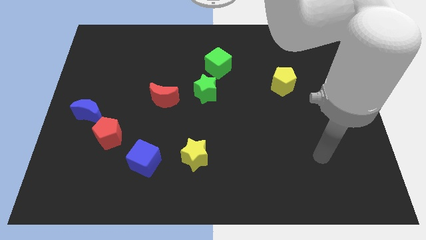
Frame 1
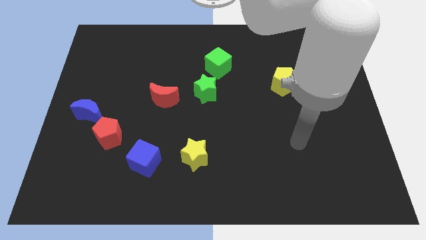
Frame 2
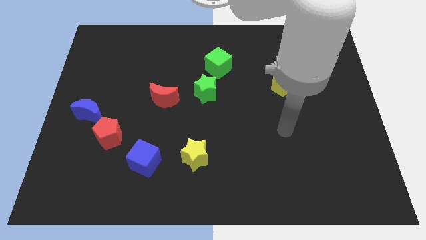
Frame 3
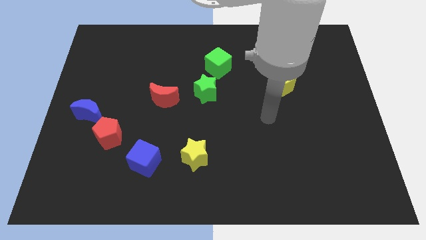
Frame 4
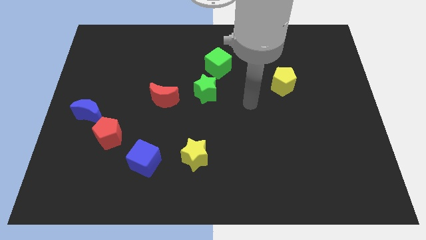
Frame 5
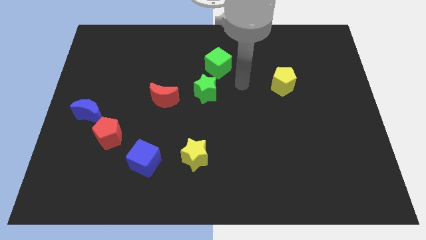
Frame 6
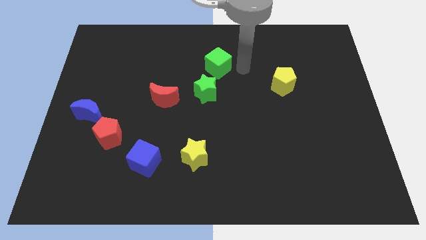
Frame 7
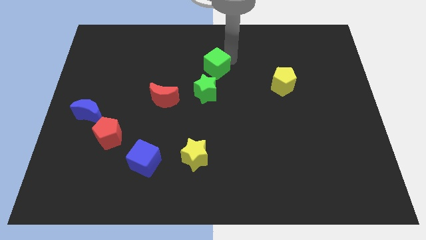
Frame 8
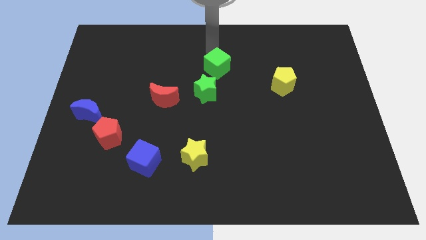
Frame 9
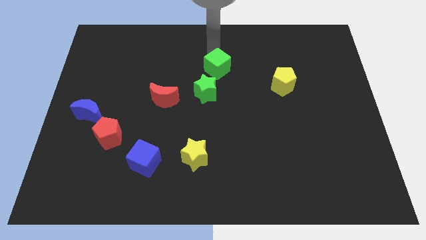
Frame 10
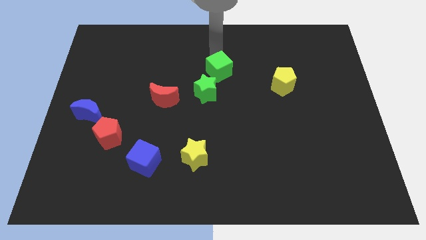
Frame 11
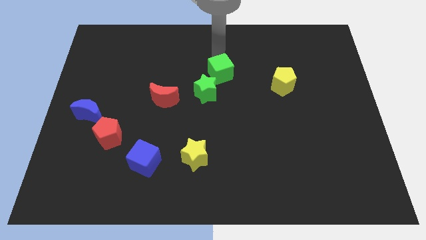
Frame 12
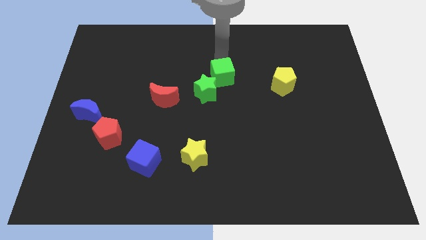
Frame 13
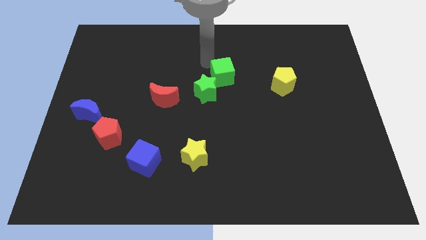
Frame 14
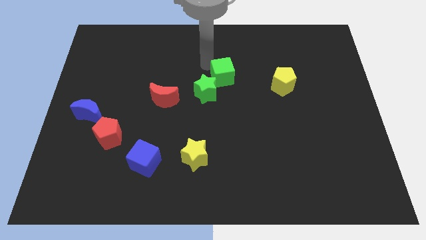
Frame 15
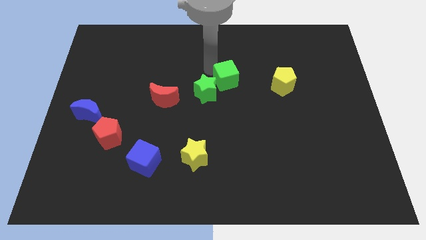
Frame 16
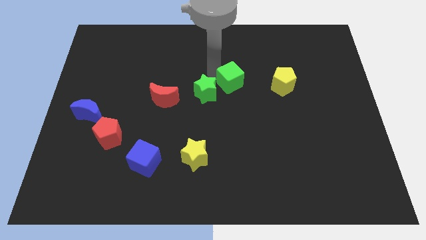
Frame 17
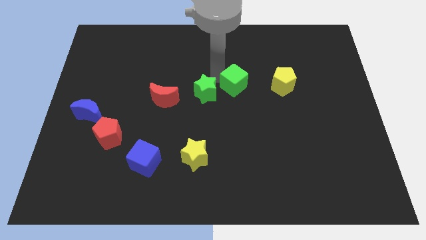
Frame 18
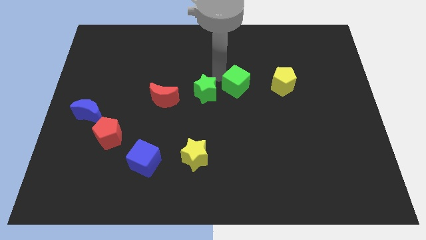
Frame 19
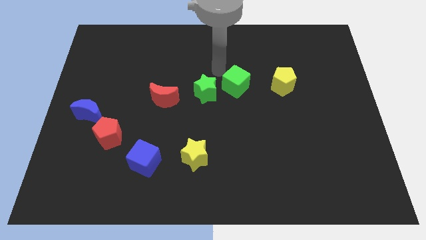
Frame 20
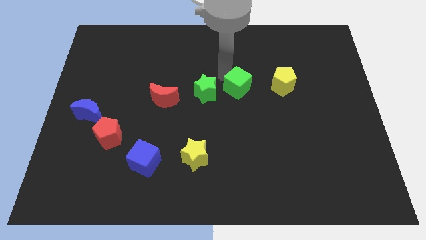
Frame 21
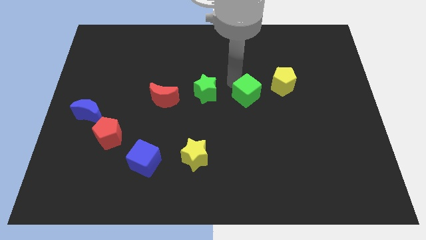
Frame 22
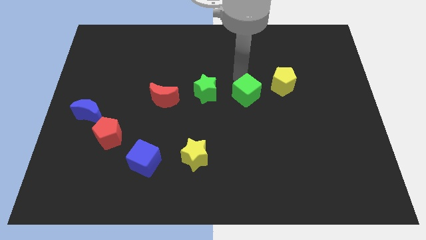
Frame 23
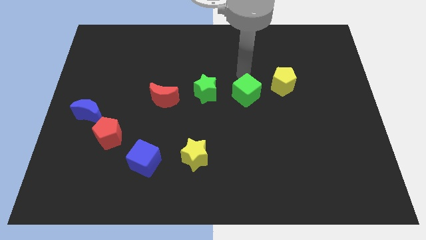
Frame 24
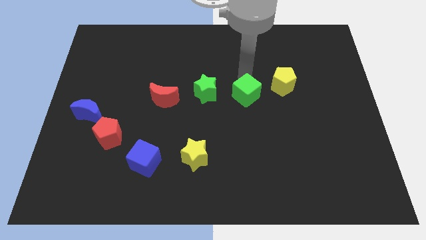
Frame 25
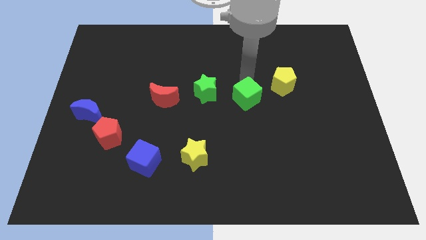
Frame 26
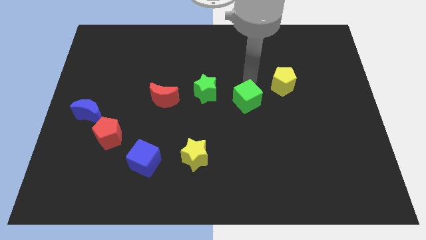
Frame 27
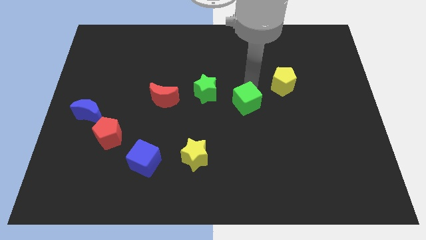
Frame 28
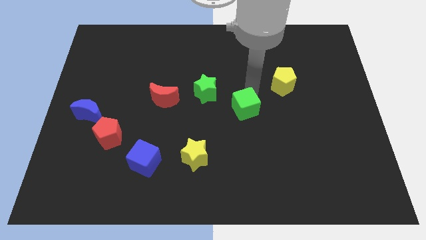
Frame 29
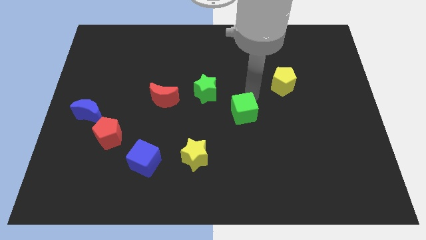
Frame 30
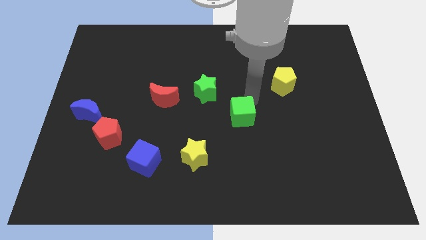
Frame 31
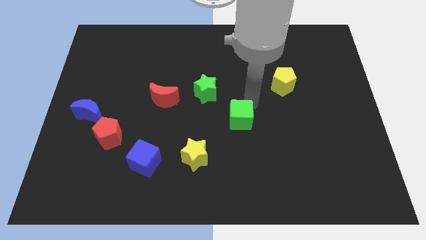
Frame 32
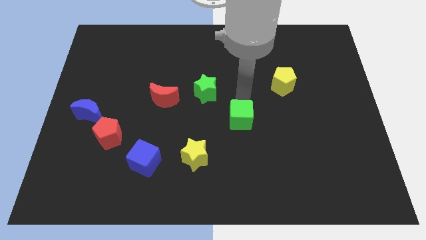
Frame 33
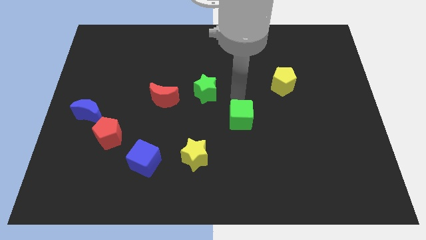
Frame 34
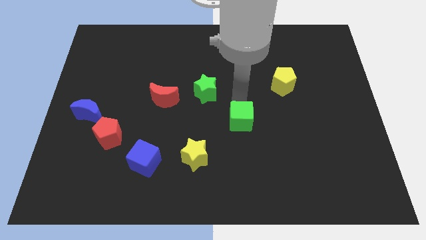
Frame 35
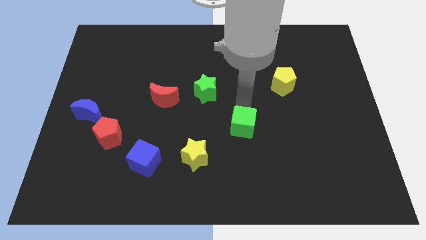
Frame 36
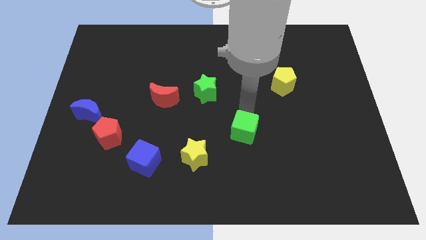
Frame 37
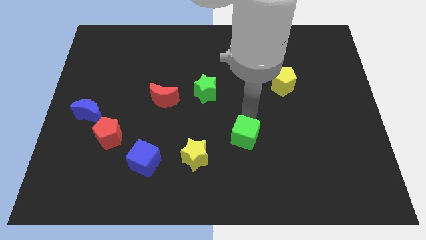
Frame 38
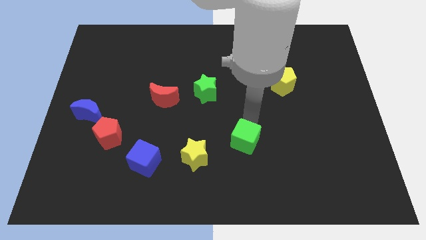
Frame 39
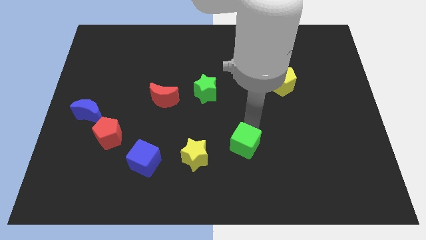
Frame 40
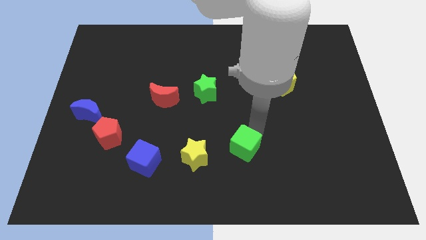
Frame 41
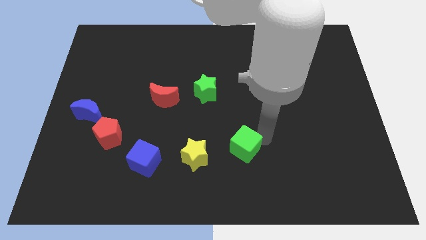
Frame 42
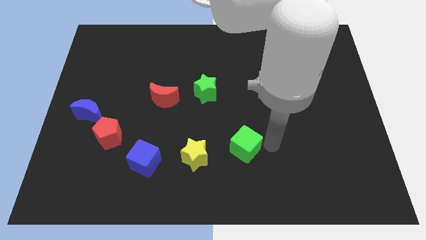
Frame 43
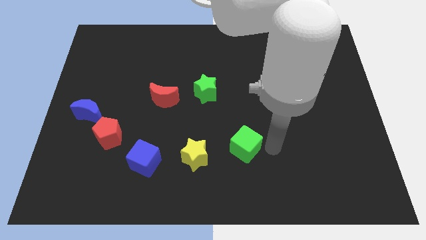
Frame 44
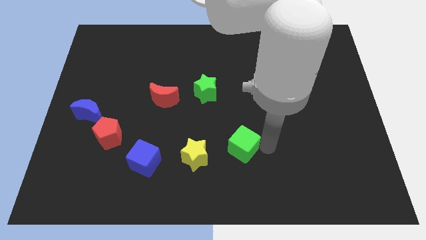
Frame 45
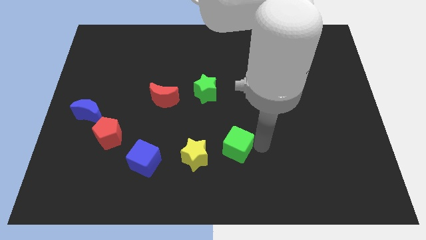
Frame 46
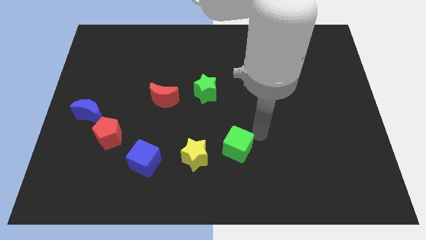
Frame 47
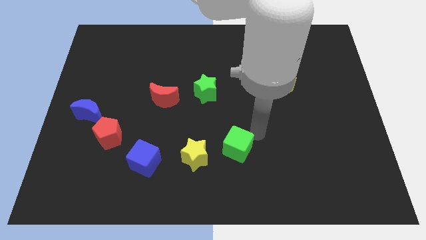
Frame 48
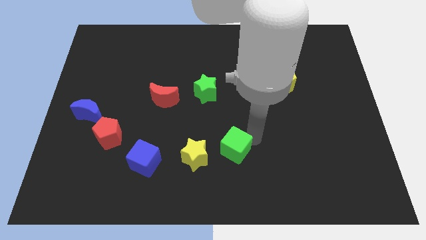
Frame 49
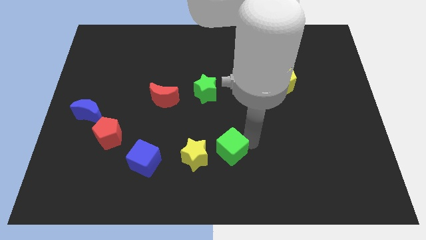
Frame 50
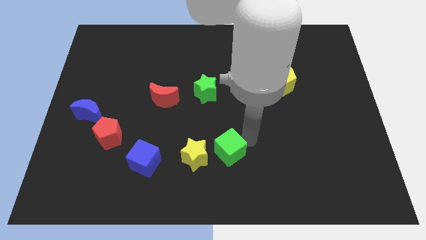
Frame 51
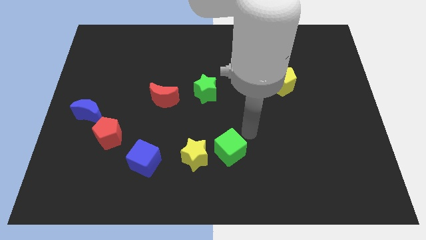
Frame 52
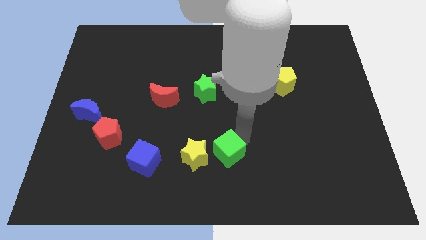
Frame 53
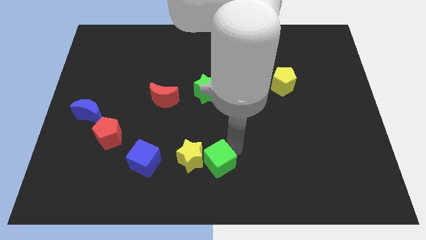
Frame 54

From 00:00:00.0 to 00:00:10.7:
put the green cube just right of the blue cube

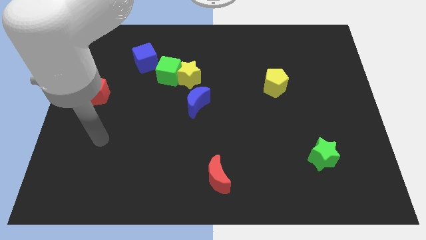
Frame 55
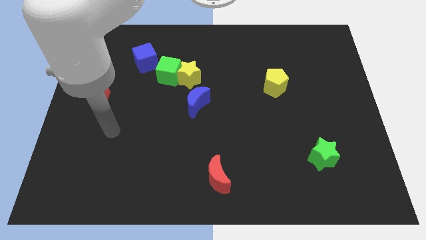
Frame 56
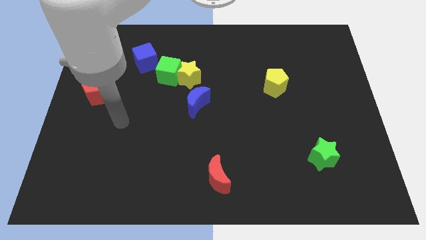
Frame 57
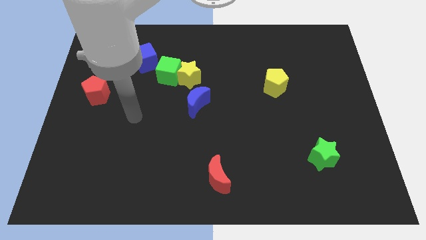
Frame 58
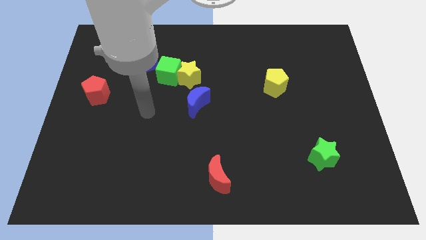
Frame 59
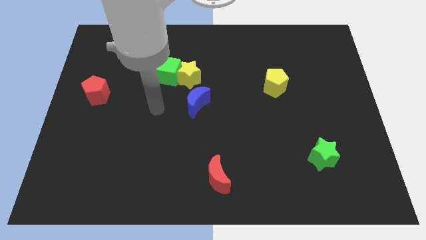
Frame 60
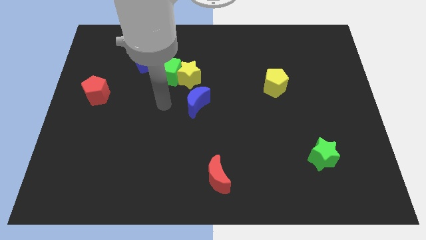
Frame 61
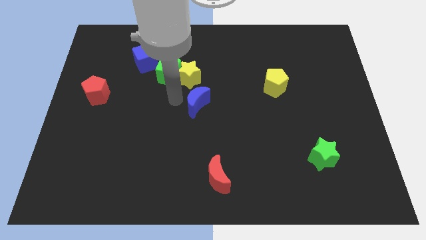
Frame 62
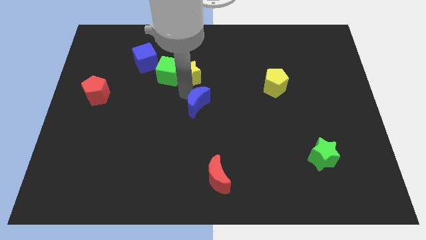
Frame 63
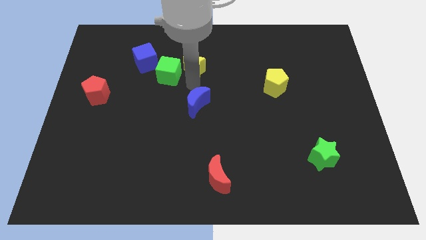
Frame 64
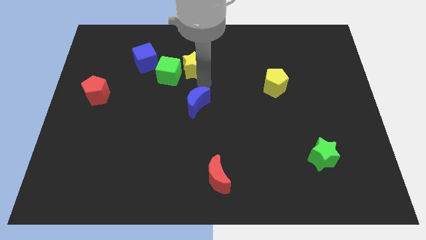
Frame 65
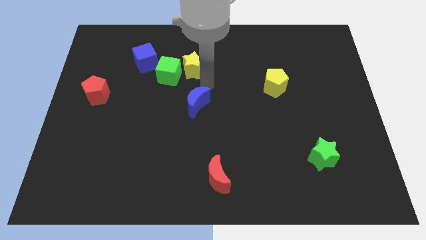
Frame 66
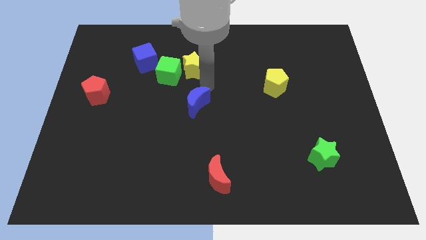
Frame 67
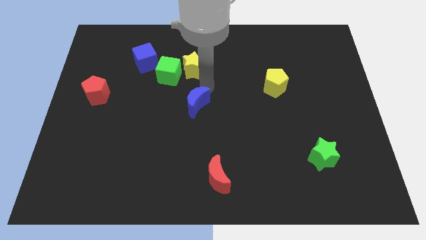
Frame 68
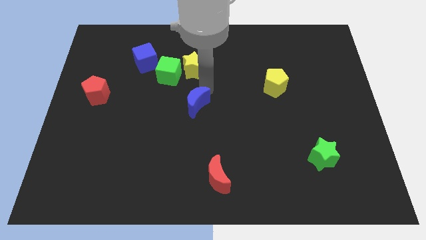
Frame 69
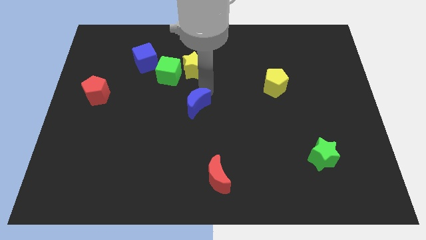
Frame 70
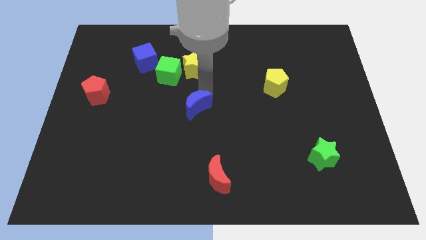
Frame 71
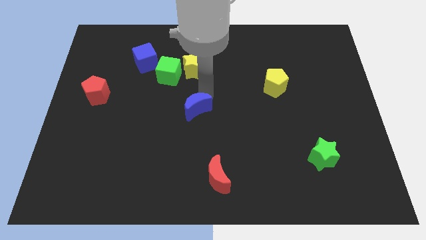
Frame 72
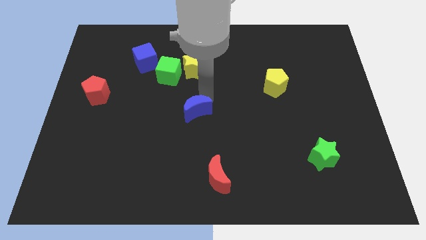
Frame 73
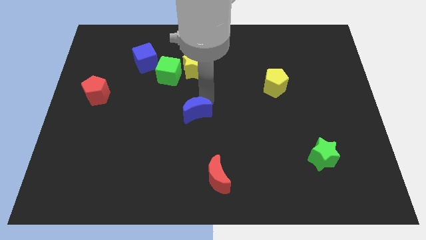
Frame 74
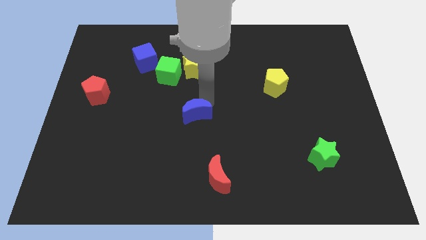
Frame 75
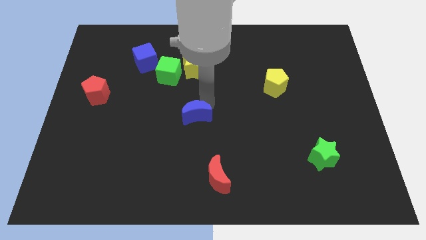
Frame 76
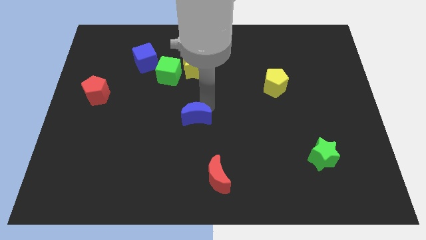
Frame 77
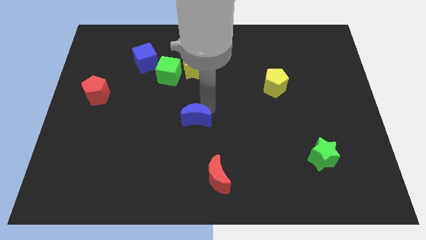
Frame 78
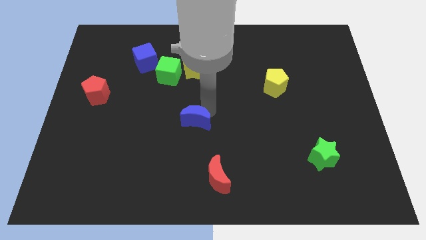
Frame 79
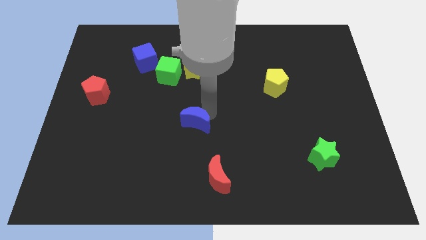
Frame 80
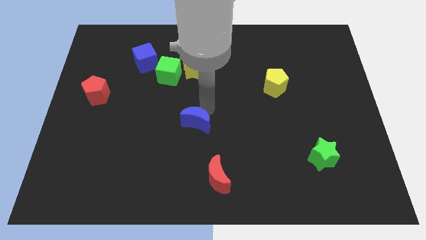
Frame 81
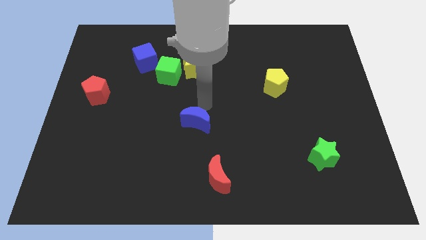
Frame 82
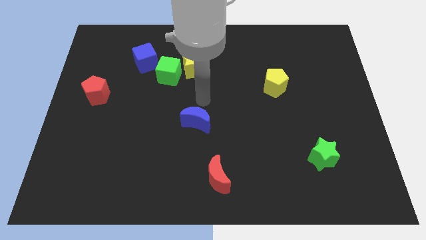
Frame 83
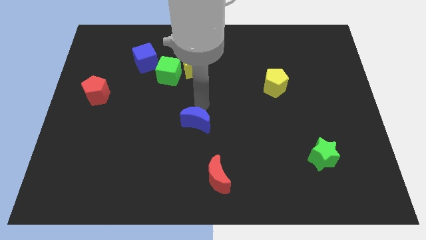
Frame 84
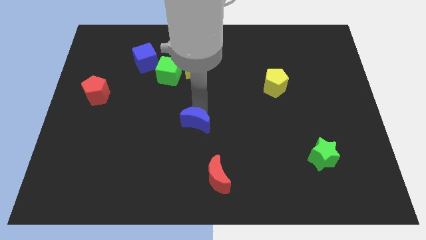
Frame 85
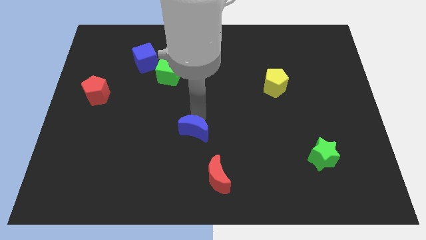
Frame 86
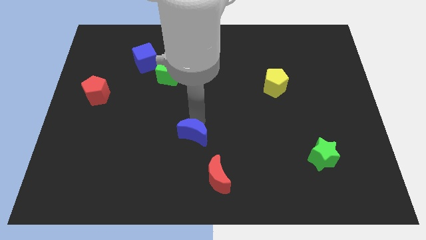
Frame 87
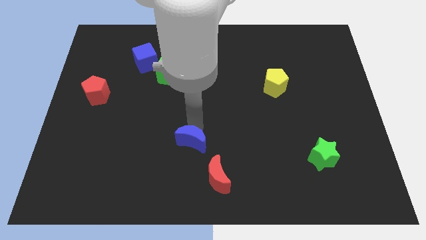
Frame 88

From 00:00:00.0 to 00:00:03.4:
slide the blue moon to the top left of the red moon
